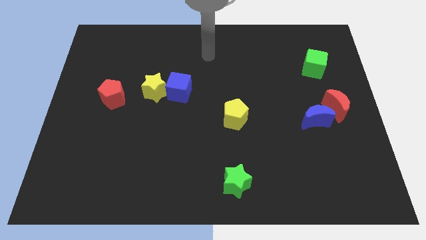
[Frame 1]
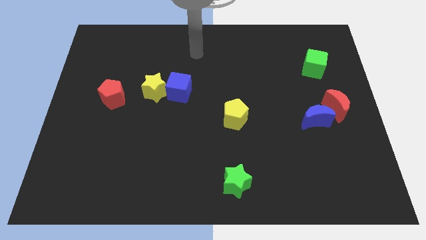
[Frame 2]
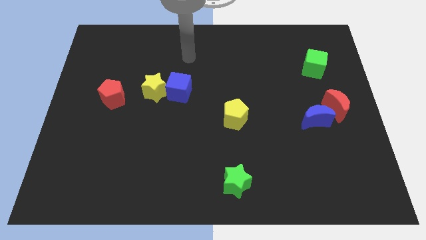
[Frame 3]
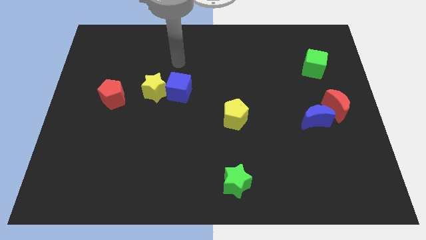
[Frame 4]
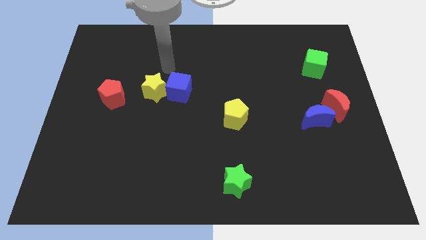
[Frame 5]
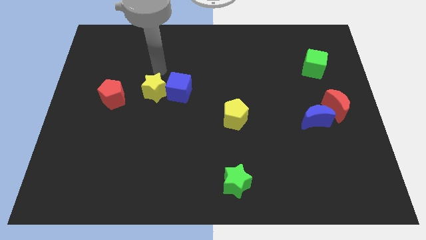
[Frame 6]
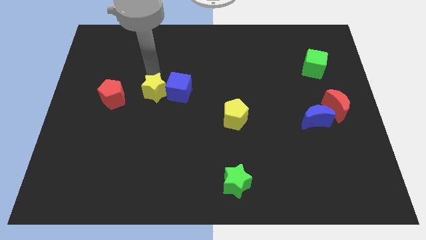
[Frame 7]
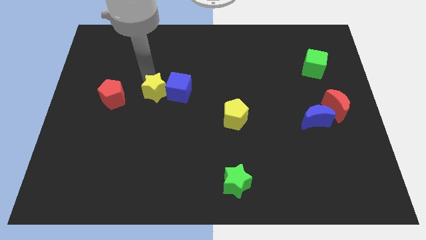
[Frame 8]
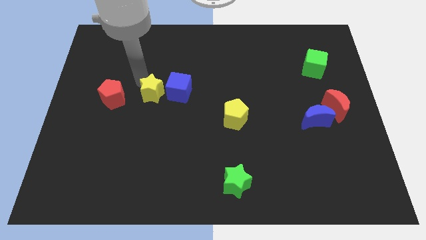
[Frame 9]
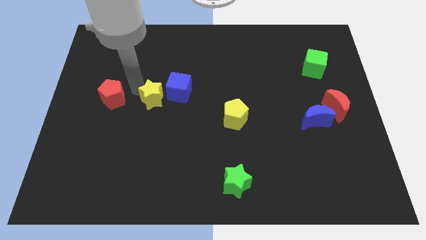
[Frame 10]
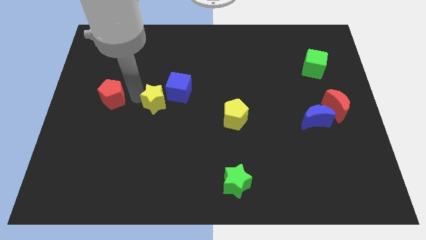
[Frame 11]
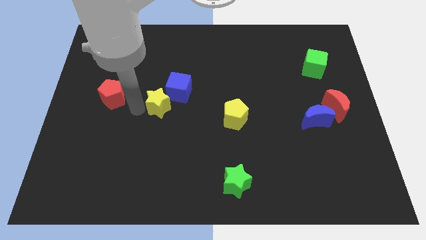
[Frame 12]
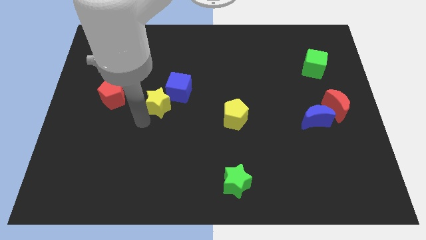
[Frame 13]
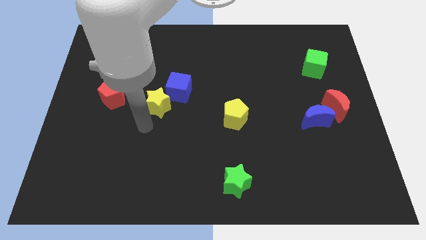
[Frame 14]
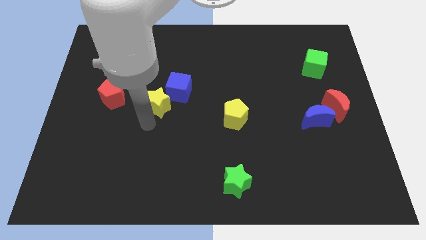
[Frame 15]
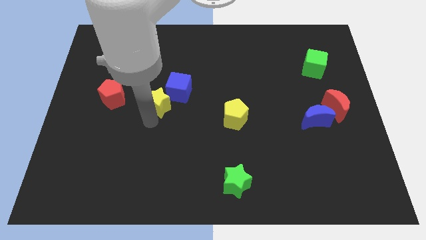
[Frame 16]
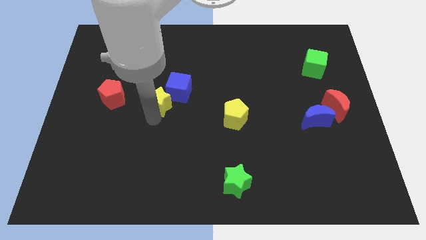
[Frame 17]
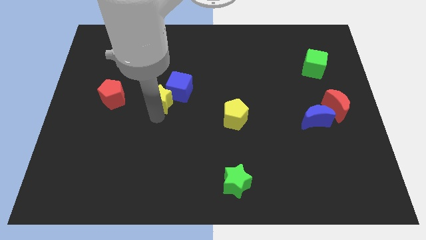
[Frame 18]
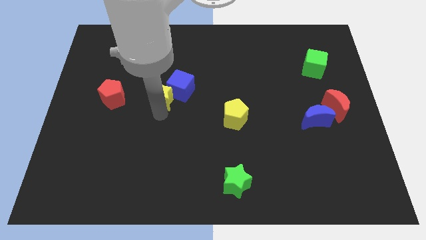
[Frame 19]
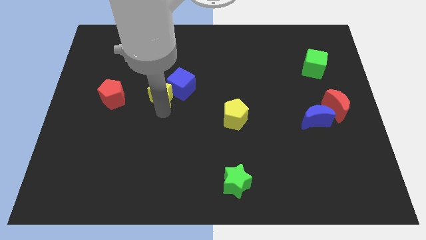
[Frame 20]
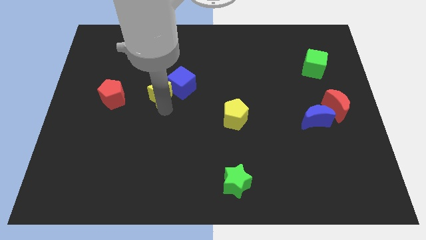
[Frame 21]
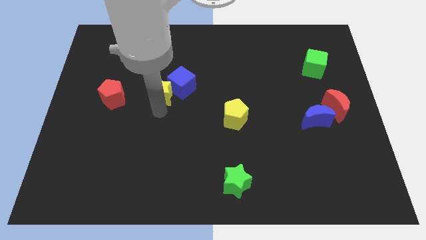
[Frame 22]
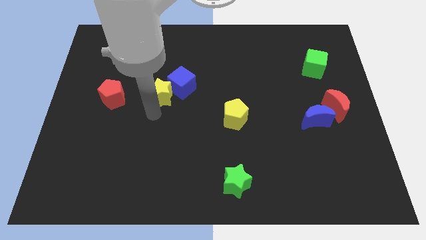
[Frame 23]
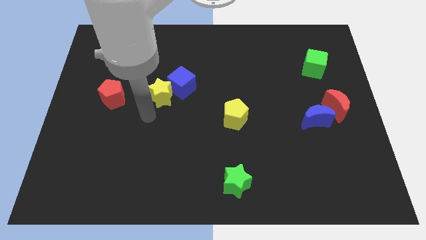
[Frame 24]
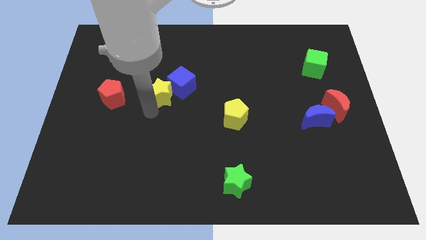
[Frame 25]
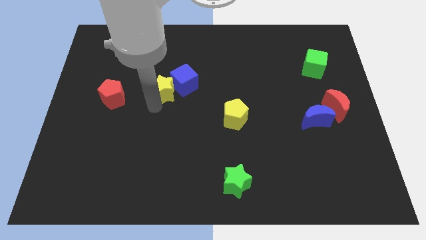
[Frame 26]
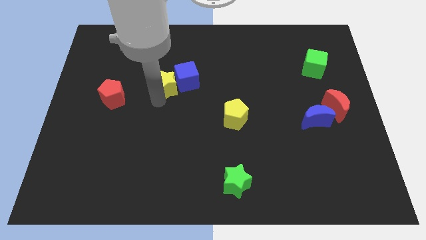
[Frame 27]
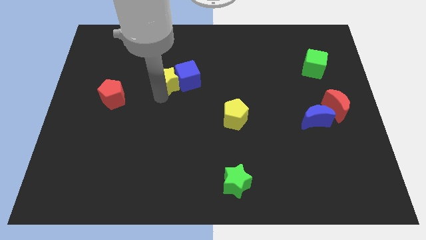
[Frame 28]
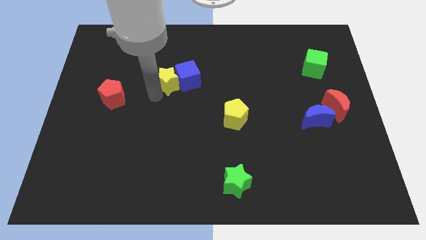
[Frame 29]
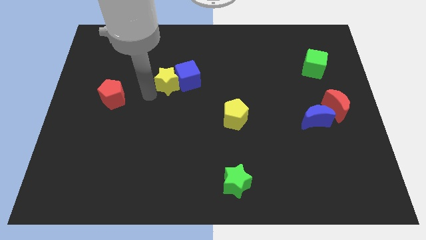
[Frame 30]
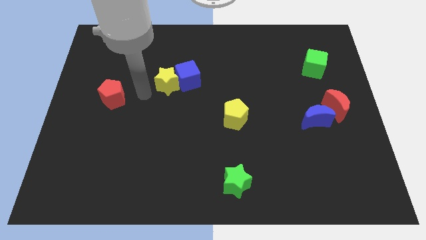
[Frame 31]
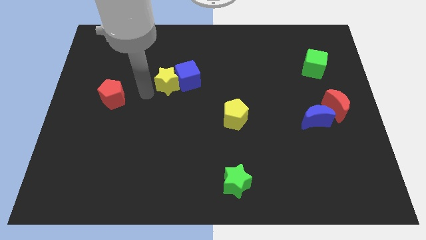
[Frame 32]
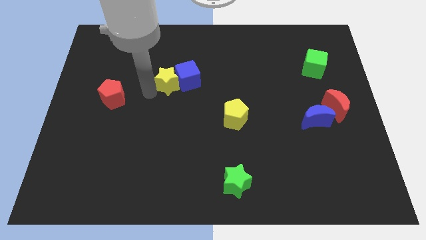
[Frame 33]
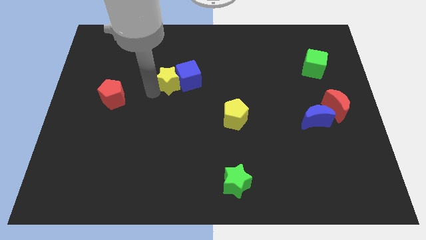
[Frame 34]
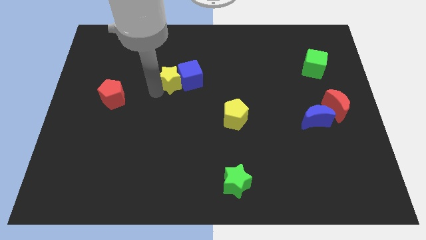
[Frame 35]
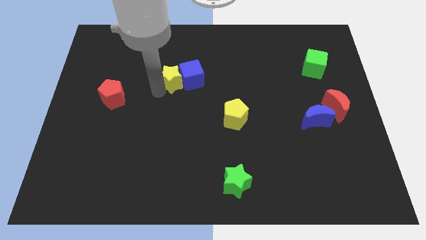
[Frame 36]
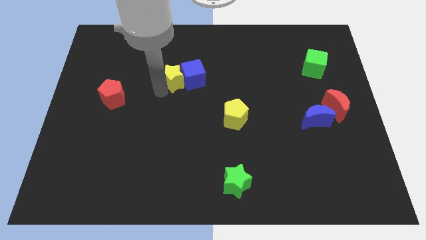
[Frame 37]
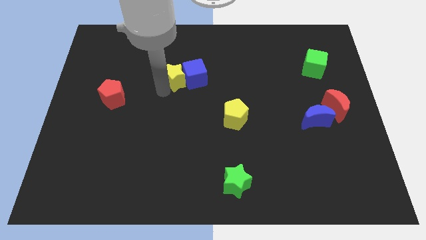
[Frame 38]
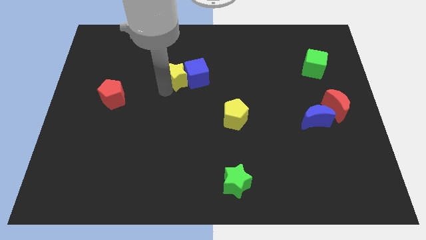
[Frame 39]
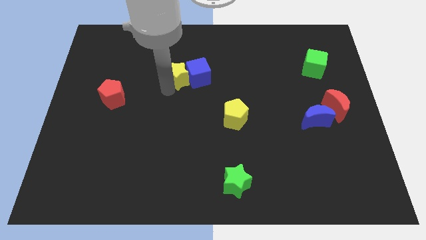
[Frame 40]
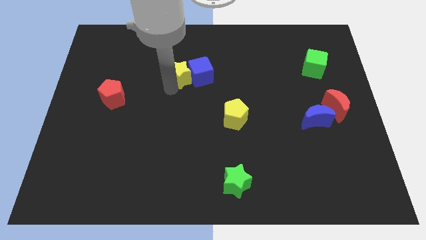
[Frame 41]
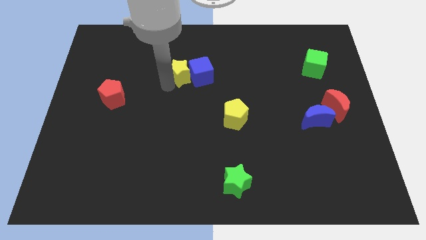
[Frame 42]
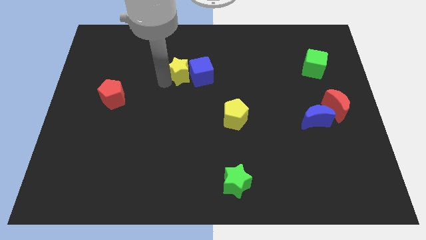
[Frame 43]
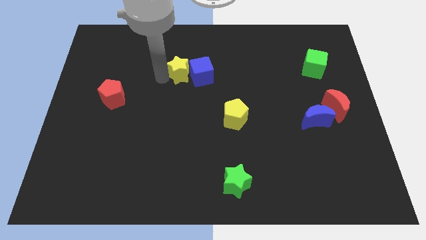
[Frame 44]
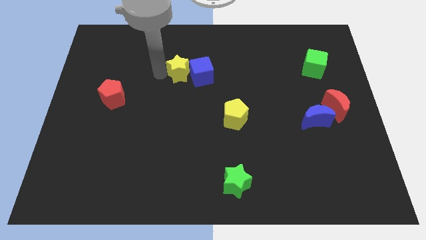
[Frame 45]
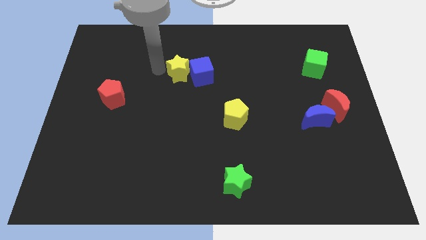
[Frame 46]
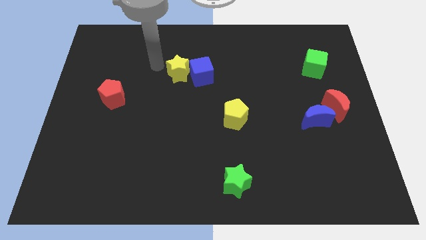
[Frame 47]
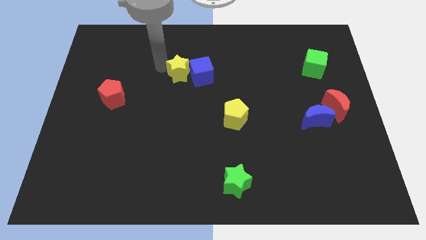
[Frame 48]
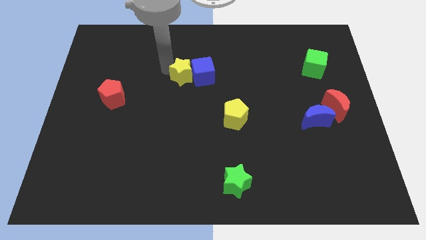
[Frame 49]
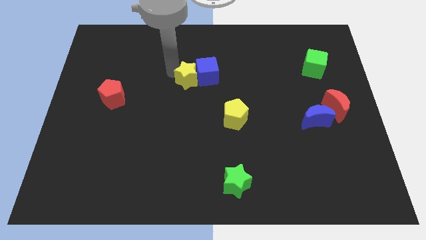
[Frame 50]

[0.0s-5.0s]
push the yellow star to the right slightly

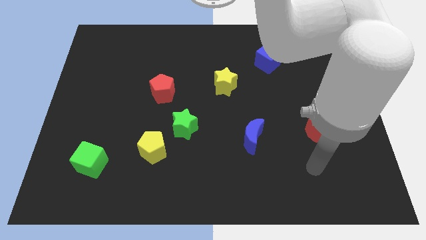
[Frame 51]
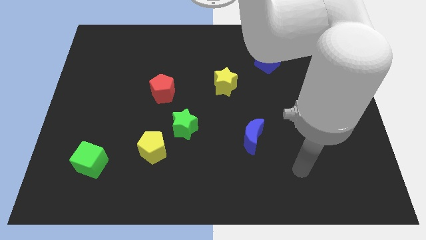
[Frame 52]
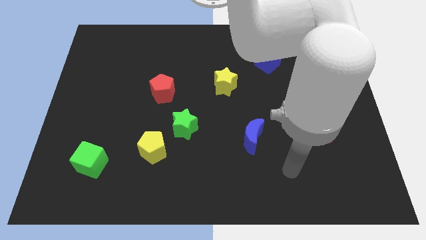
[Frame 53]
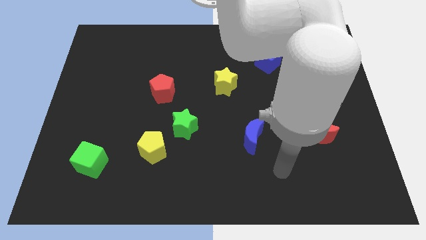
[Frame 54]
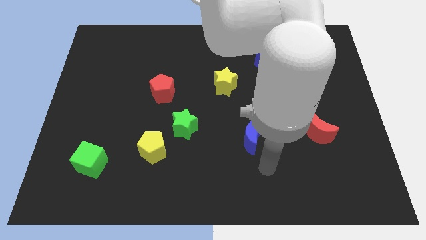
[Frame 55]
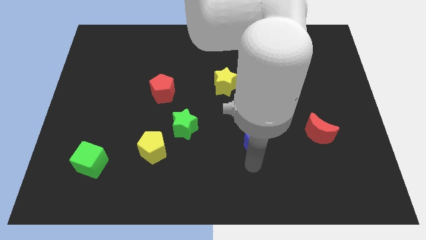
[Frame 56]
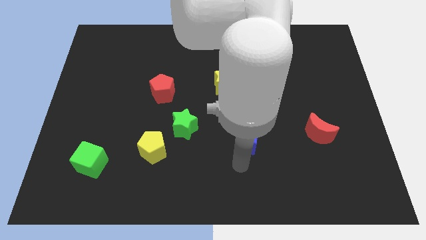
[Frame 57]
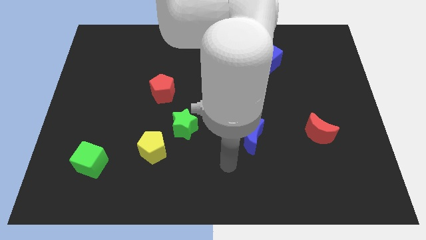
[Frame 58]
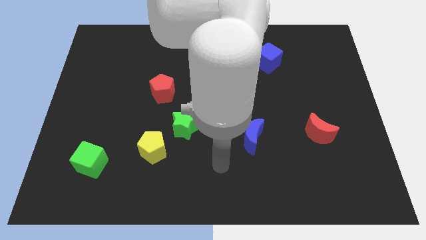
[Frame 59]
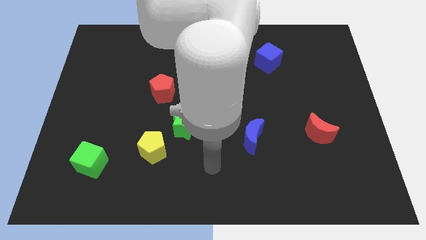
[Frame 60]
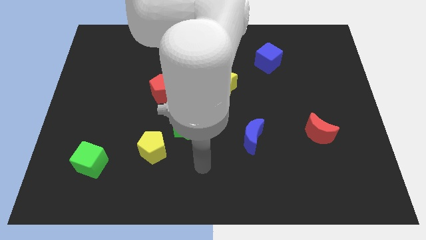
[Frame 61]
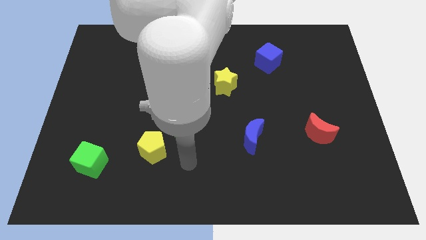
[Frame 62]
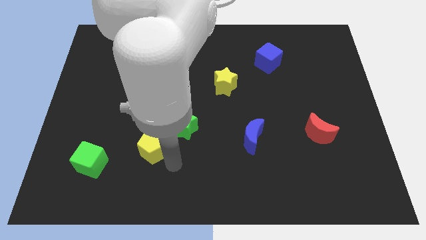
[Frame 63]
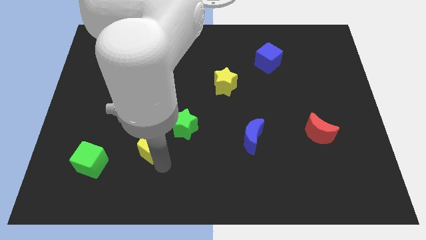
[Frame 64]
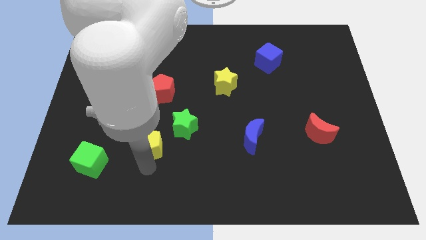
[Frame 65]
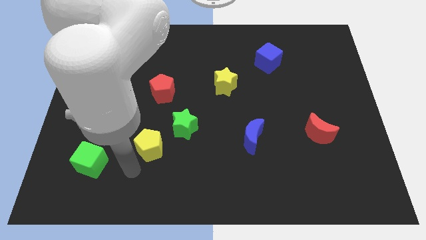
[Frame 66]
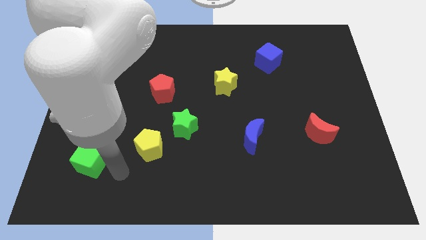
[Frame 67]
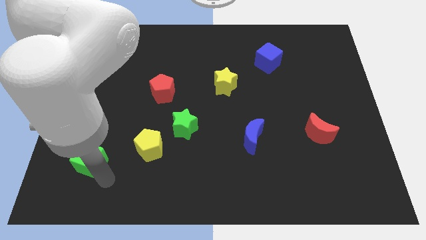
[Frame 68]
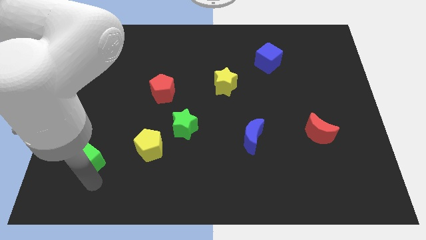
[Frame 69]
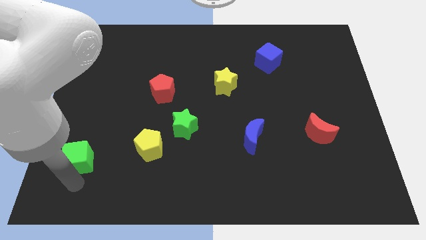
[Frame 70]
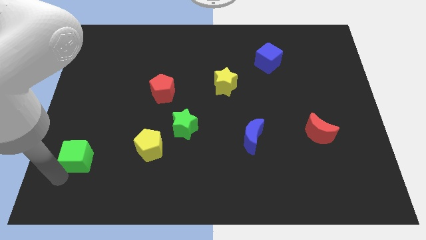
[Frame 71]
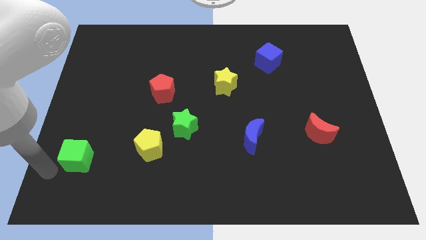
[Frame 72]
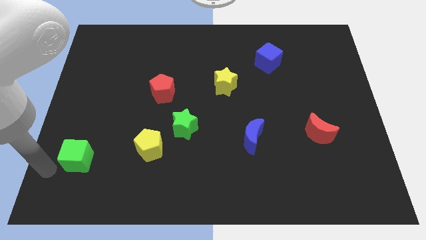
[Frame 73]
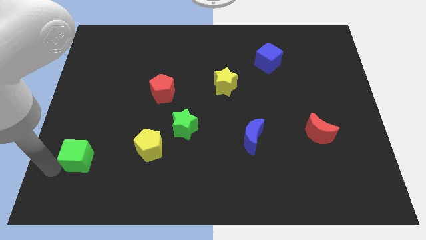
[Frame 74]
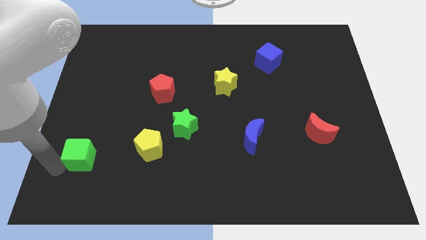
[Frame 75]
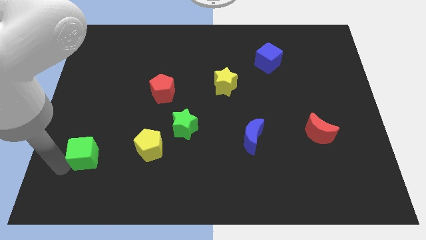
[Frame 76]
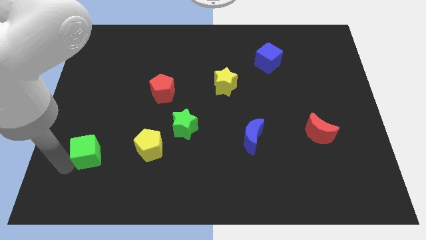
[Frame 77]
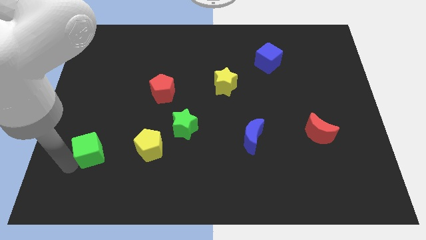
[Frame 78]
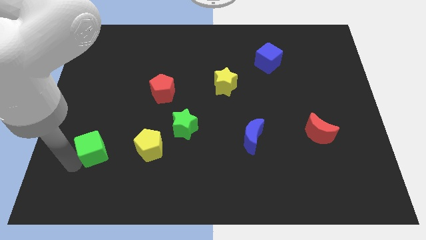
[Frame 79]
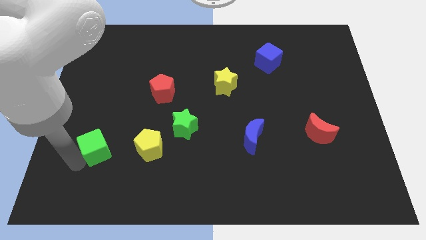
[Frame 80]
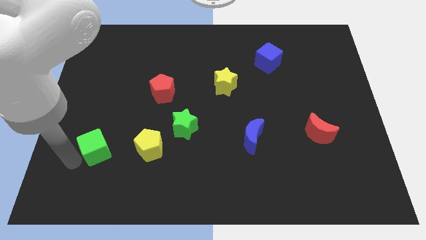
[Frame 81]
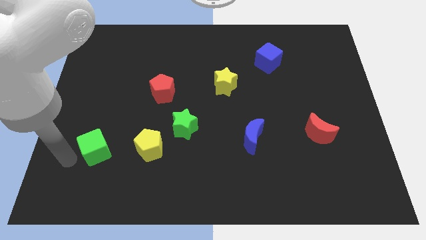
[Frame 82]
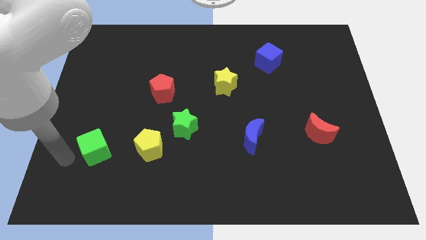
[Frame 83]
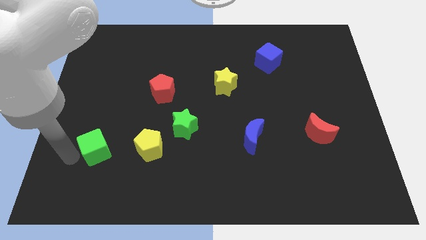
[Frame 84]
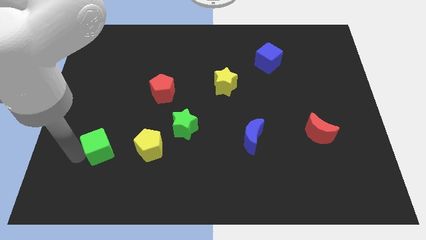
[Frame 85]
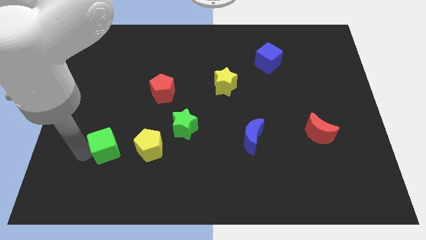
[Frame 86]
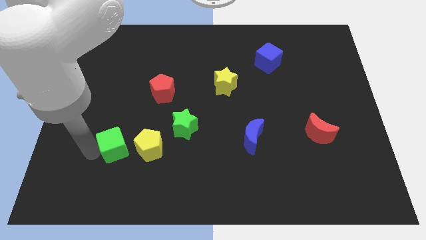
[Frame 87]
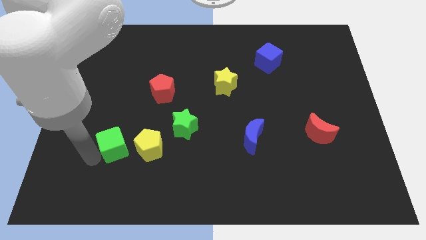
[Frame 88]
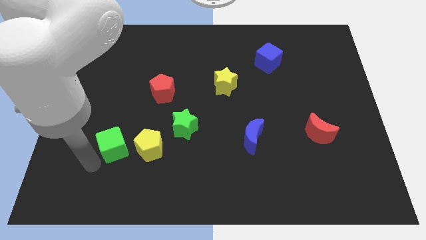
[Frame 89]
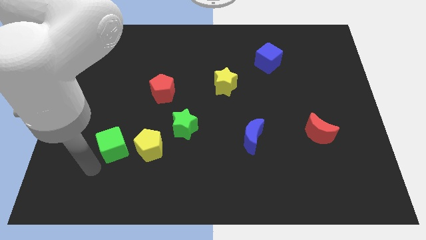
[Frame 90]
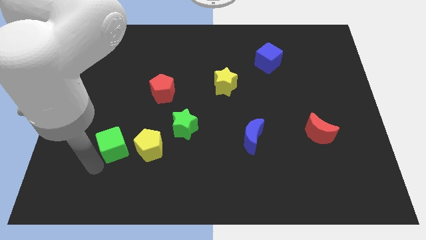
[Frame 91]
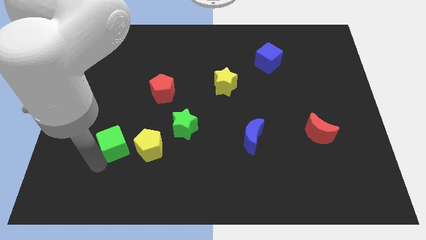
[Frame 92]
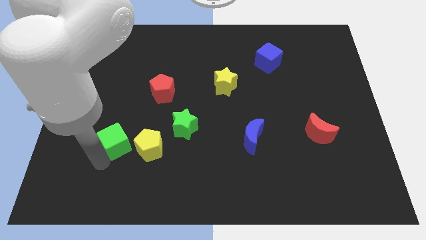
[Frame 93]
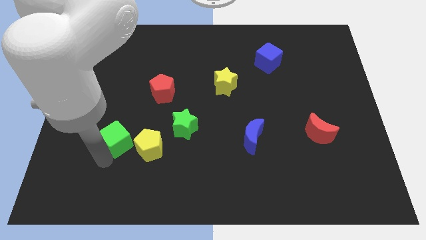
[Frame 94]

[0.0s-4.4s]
slide the green cube somewhat upwards and right
